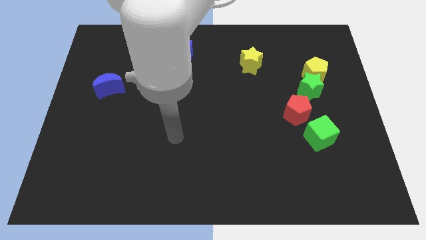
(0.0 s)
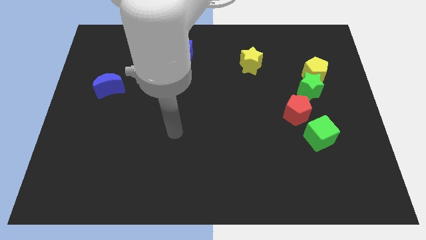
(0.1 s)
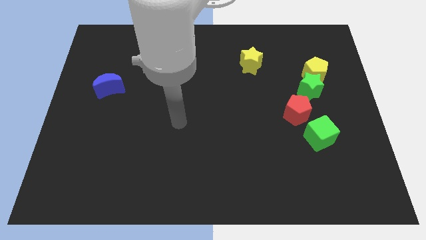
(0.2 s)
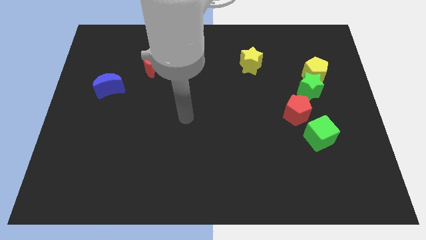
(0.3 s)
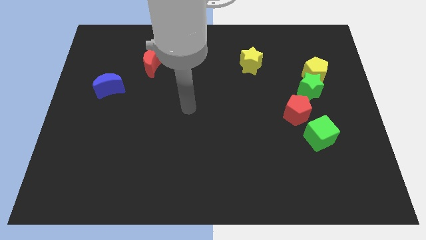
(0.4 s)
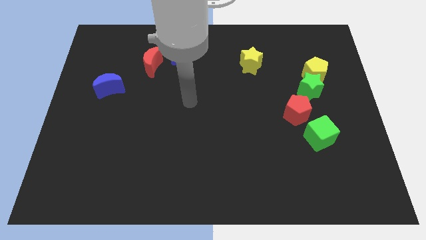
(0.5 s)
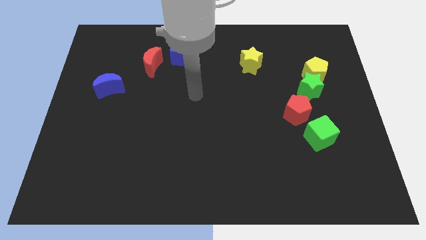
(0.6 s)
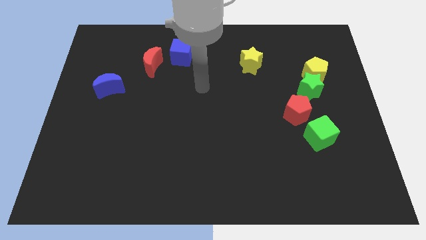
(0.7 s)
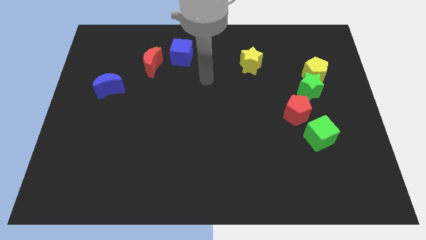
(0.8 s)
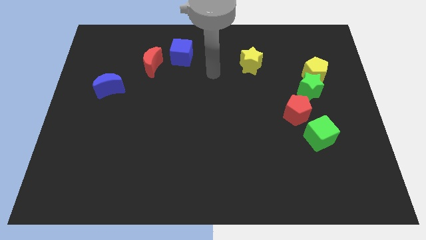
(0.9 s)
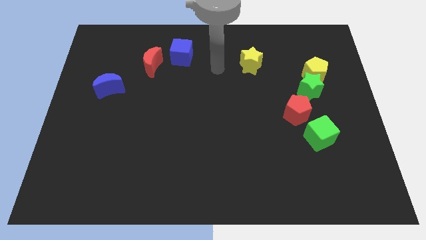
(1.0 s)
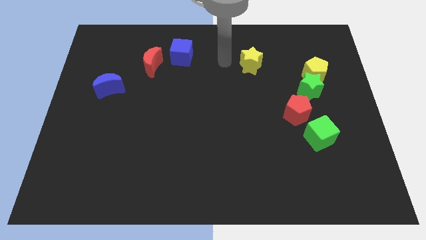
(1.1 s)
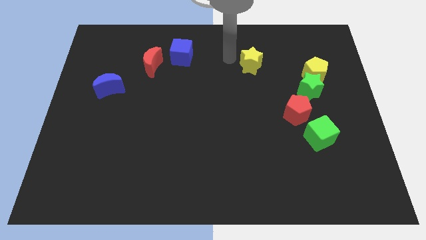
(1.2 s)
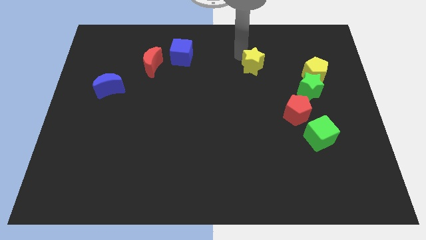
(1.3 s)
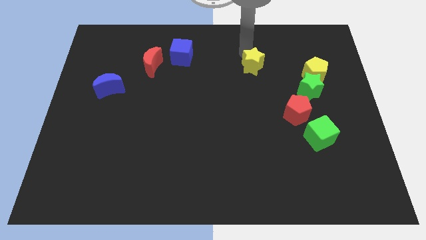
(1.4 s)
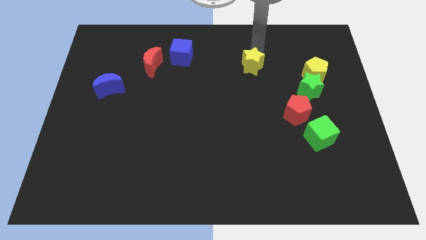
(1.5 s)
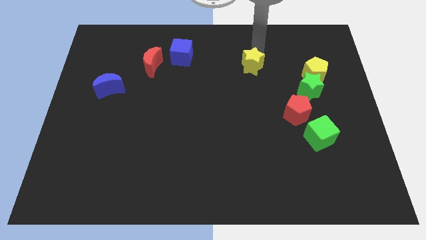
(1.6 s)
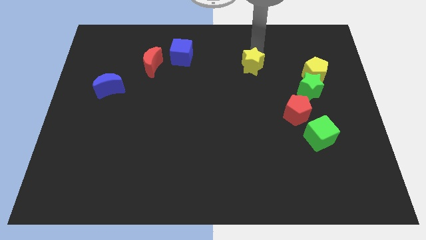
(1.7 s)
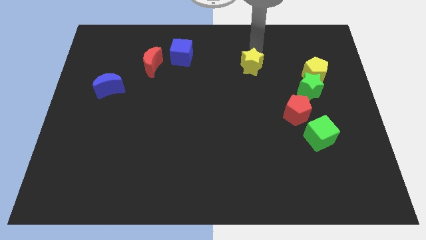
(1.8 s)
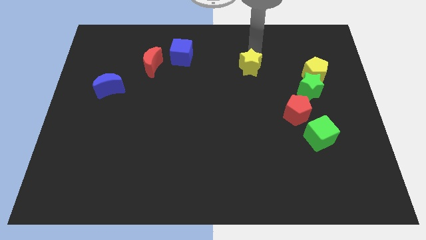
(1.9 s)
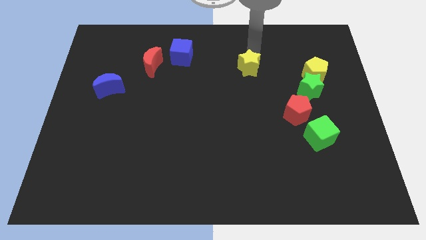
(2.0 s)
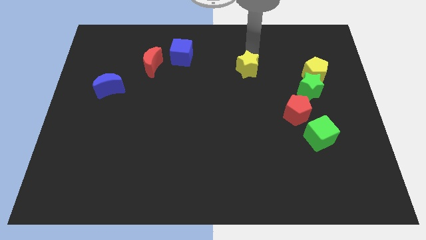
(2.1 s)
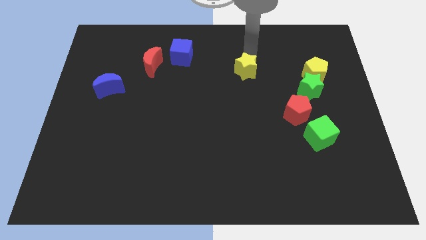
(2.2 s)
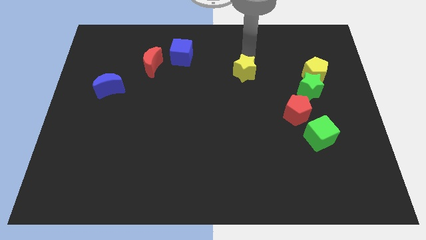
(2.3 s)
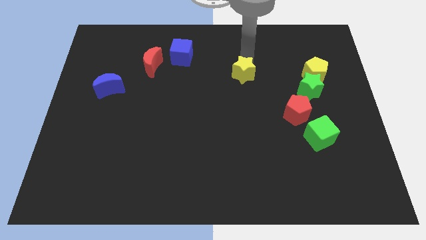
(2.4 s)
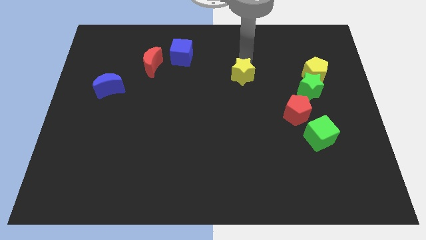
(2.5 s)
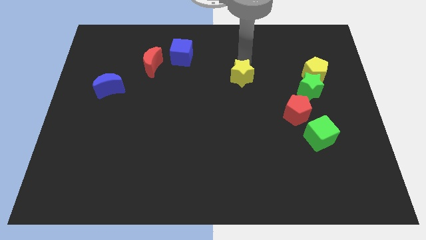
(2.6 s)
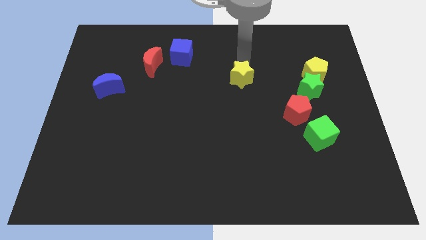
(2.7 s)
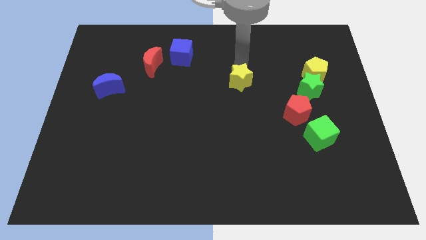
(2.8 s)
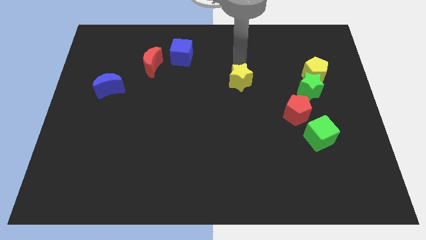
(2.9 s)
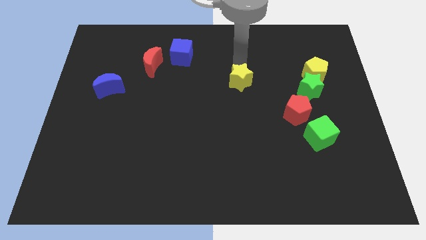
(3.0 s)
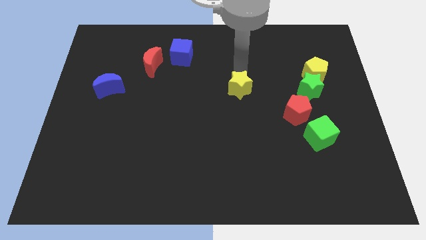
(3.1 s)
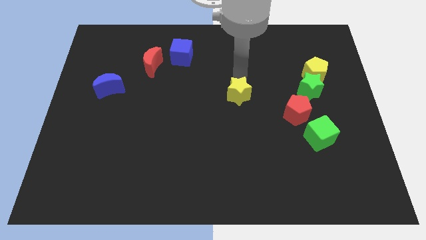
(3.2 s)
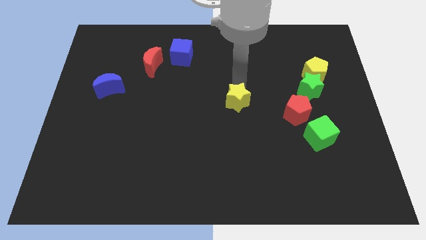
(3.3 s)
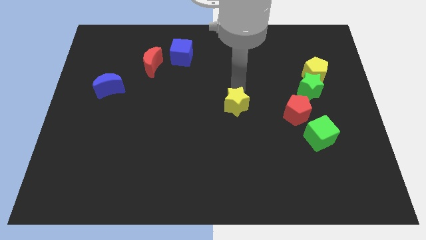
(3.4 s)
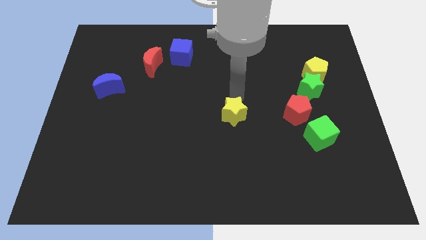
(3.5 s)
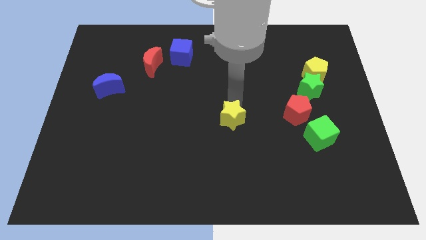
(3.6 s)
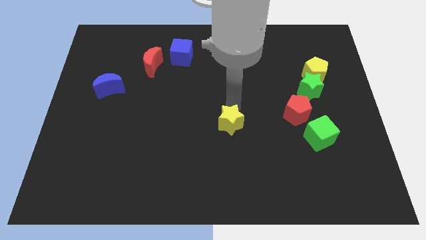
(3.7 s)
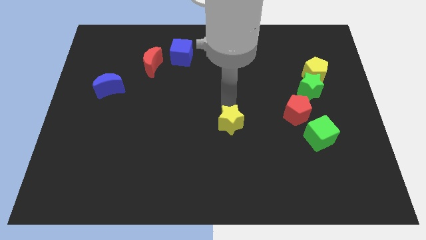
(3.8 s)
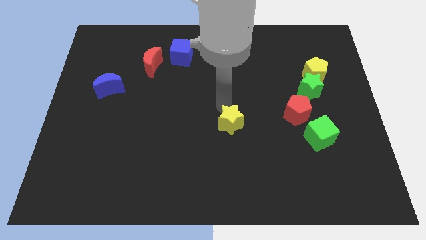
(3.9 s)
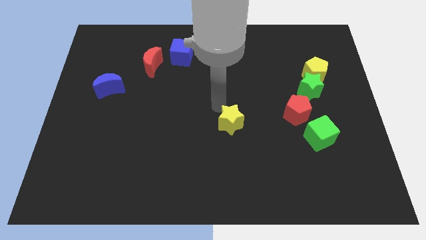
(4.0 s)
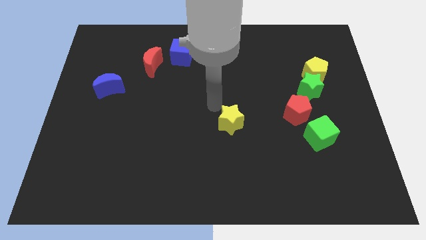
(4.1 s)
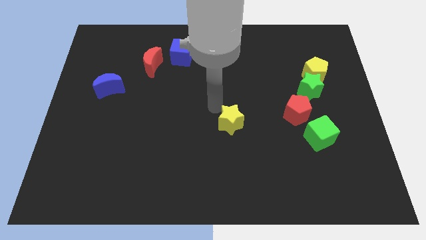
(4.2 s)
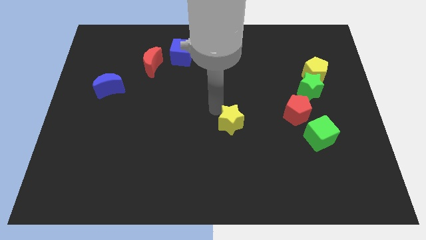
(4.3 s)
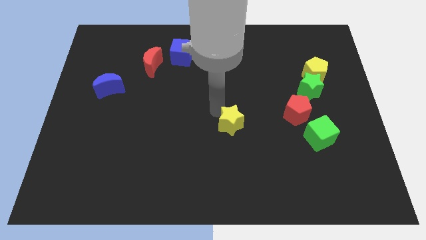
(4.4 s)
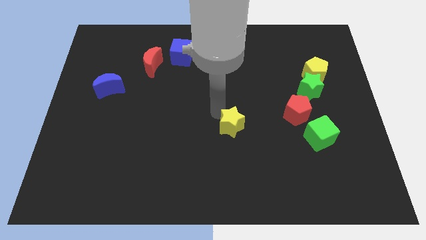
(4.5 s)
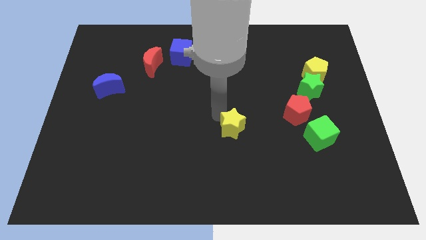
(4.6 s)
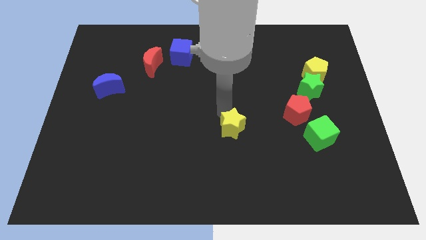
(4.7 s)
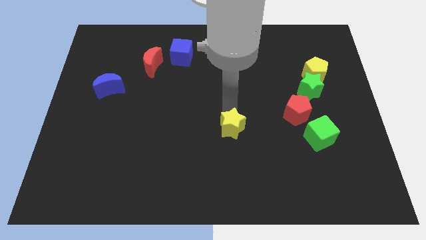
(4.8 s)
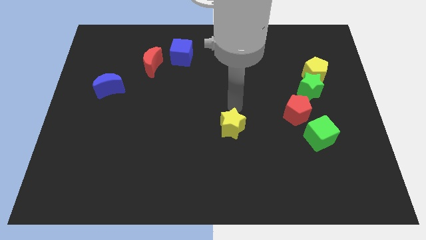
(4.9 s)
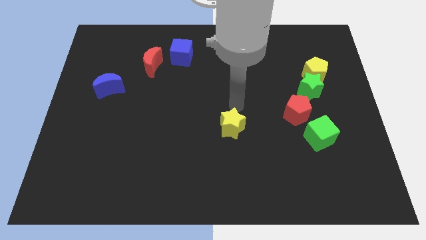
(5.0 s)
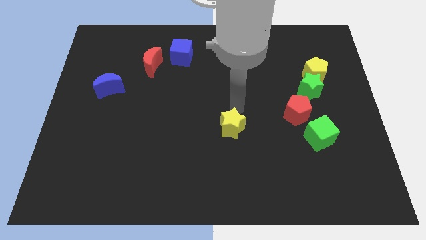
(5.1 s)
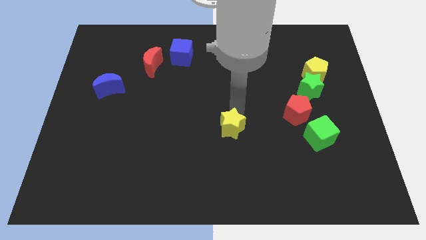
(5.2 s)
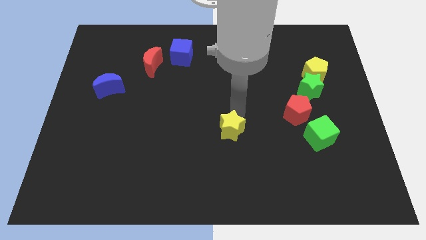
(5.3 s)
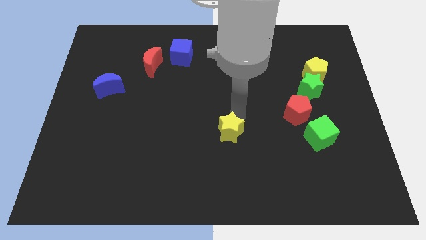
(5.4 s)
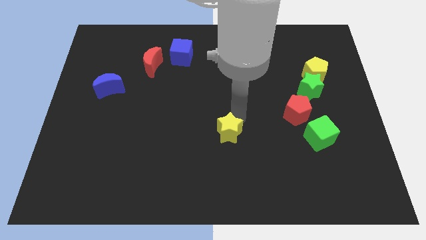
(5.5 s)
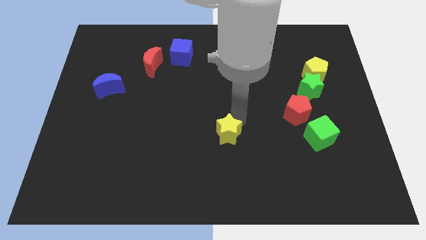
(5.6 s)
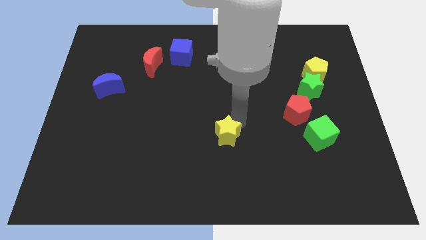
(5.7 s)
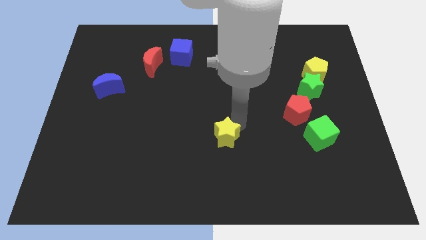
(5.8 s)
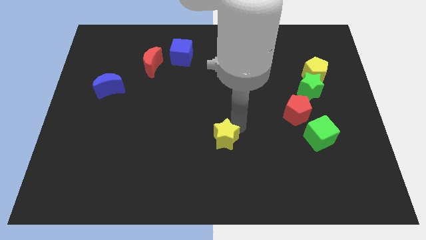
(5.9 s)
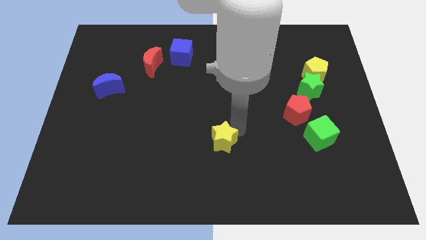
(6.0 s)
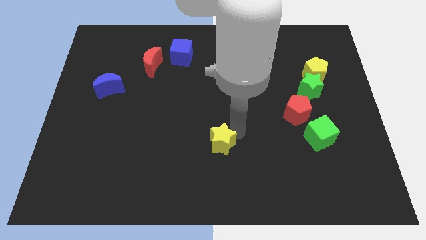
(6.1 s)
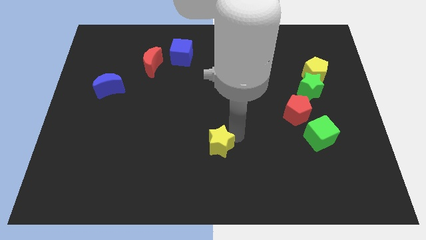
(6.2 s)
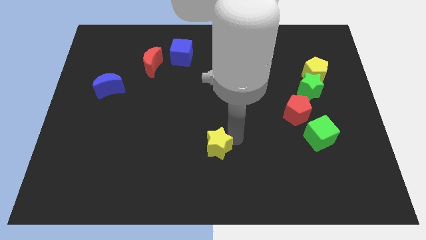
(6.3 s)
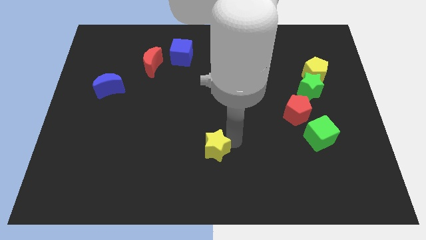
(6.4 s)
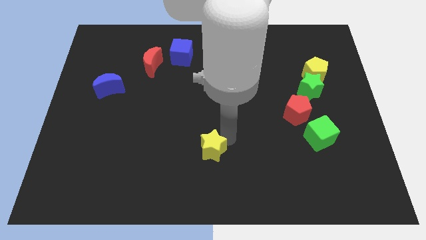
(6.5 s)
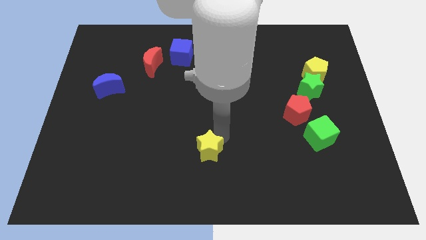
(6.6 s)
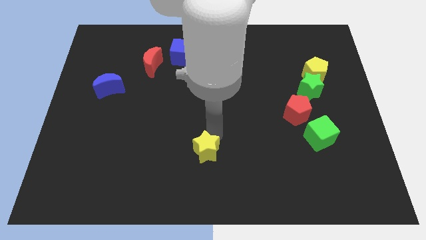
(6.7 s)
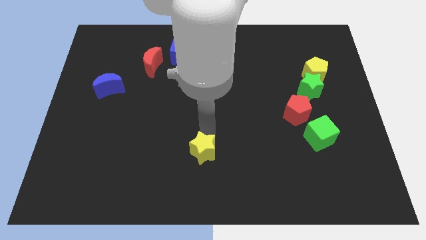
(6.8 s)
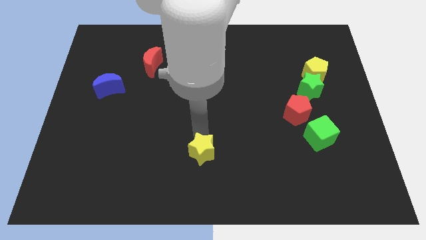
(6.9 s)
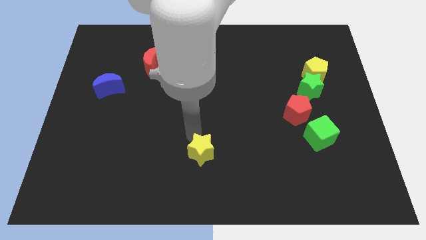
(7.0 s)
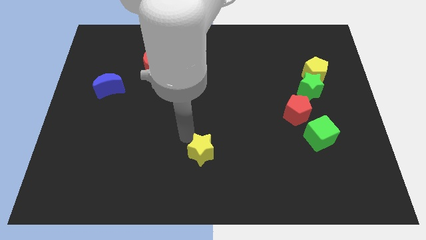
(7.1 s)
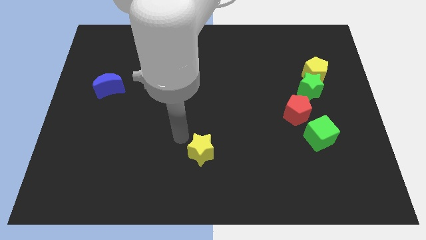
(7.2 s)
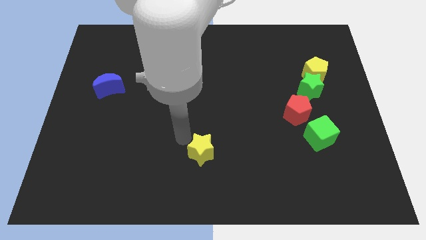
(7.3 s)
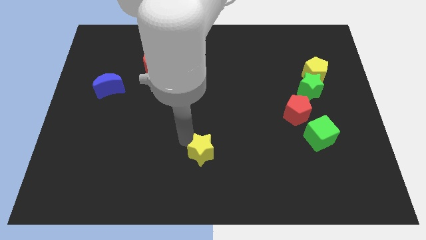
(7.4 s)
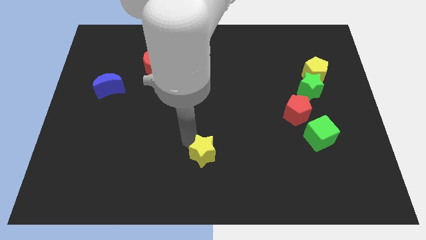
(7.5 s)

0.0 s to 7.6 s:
put the yellow star to the bottom
